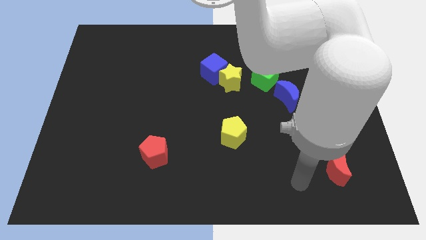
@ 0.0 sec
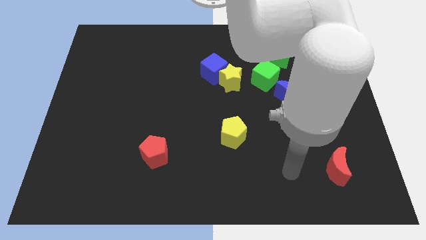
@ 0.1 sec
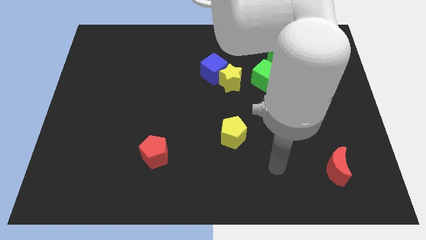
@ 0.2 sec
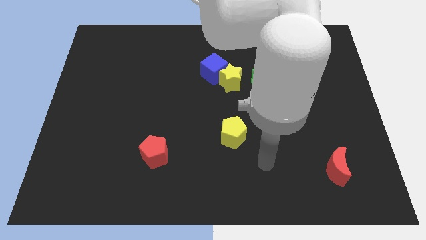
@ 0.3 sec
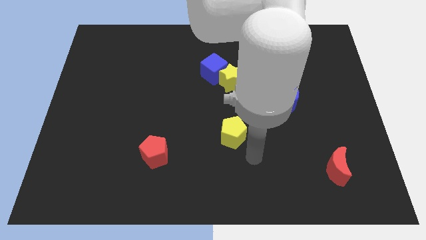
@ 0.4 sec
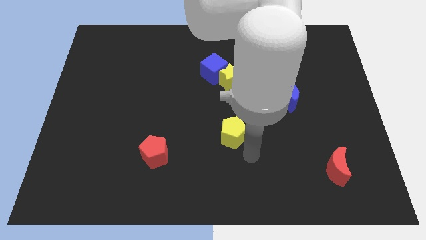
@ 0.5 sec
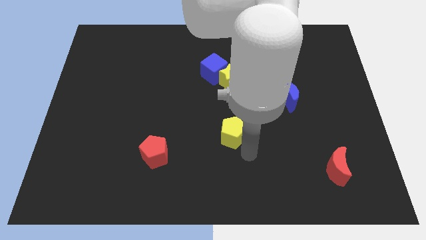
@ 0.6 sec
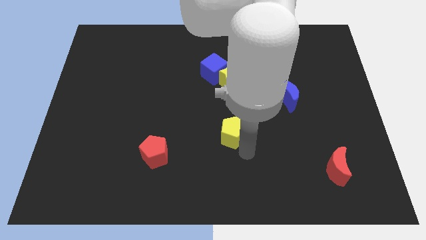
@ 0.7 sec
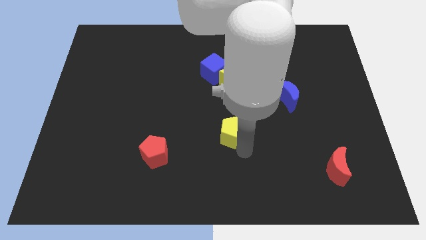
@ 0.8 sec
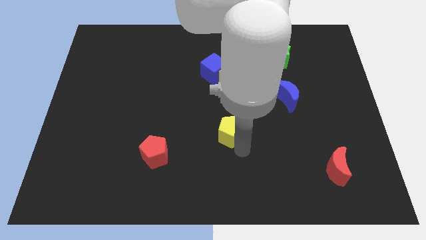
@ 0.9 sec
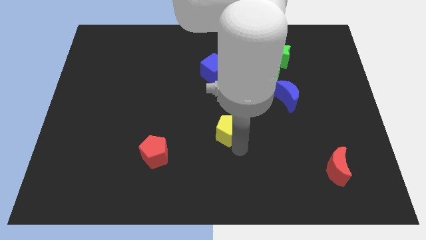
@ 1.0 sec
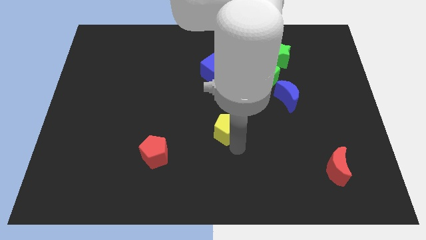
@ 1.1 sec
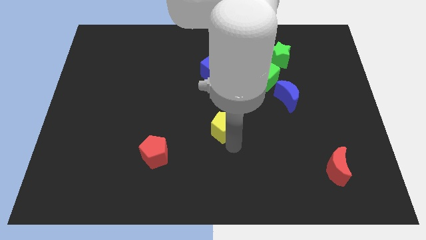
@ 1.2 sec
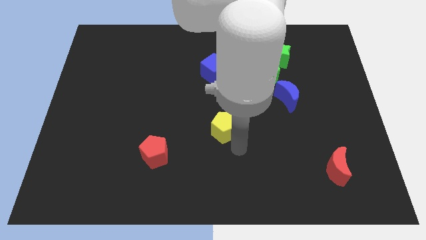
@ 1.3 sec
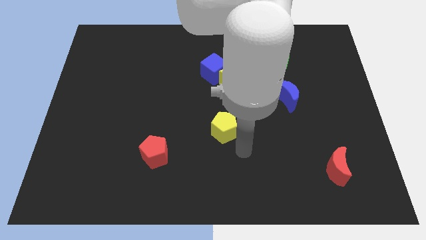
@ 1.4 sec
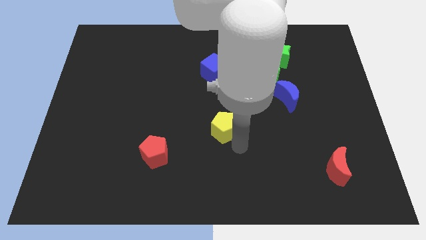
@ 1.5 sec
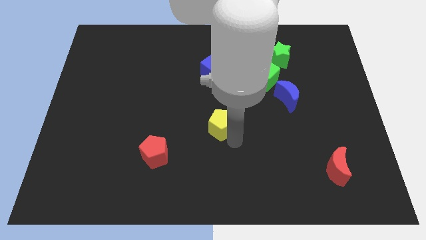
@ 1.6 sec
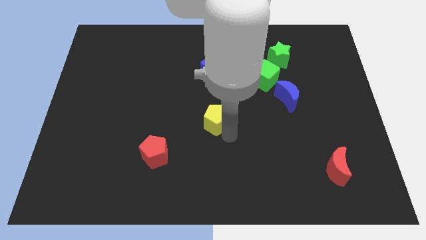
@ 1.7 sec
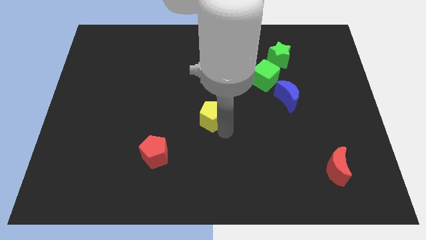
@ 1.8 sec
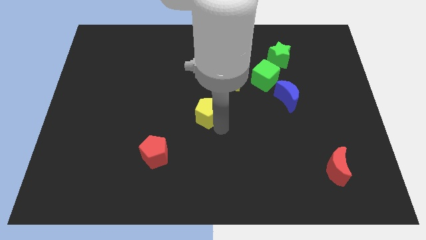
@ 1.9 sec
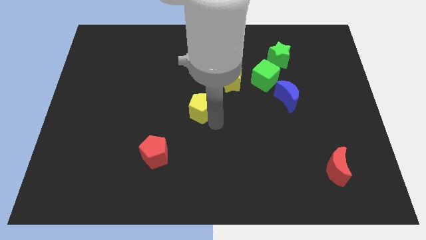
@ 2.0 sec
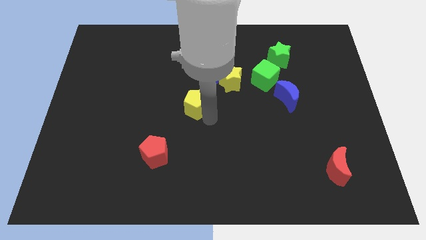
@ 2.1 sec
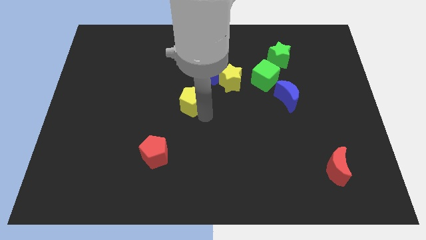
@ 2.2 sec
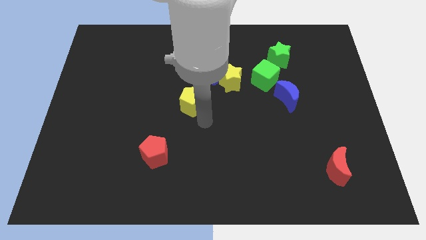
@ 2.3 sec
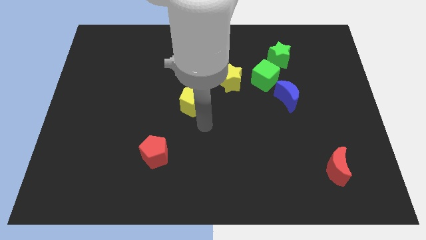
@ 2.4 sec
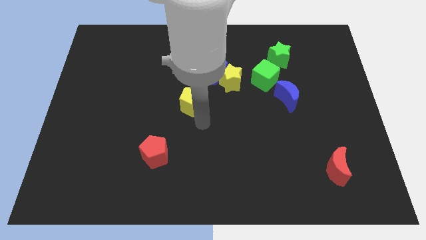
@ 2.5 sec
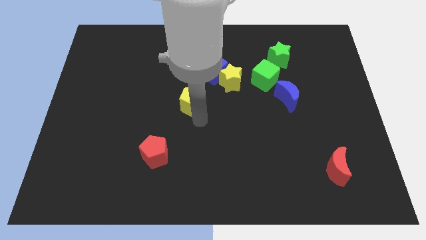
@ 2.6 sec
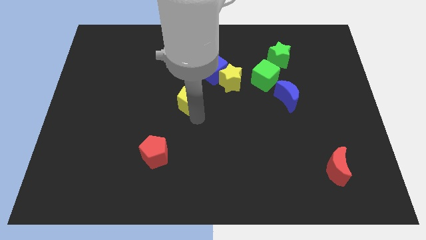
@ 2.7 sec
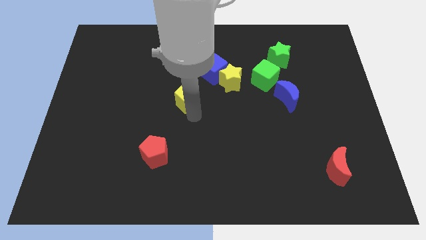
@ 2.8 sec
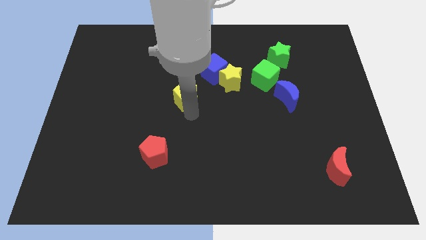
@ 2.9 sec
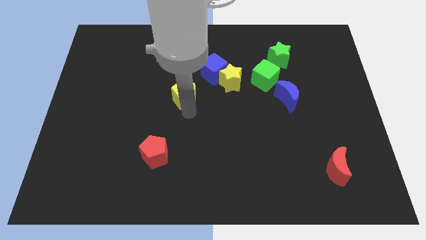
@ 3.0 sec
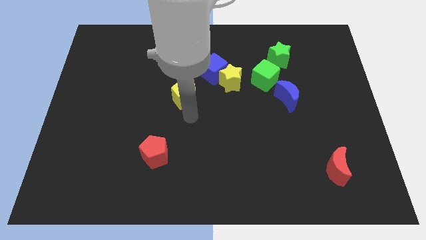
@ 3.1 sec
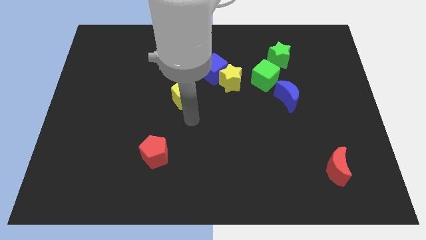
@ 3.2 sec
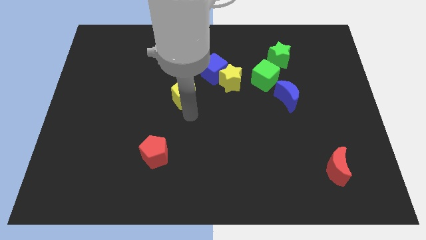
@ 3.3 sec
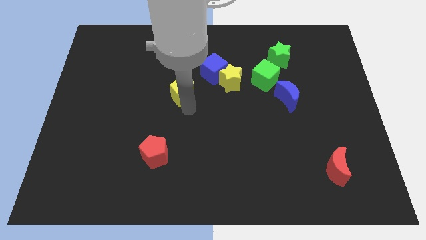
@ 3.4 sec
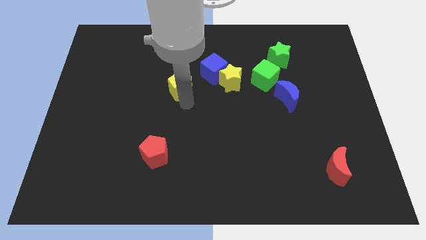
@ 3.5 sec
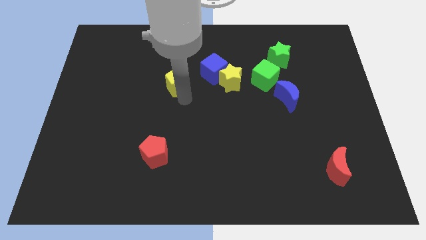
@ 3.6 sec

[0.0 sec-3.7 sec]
push the yellow pentagon diagonally up and left

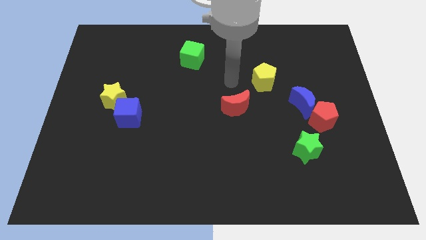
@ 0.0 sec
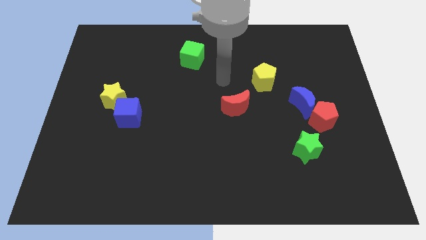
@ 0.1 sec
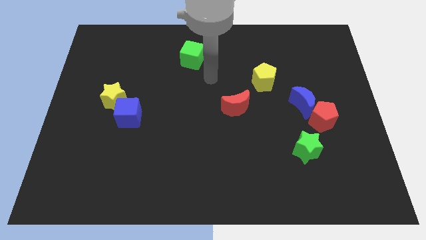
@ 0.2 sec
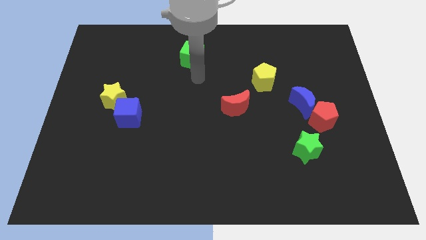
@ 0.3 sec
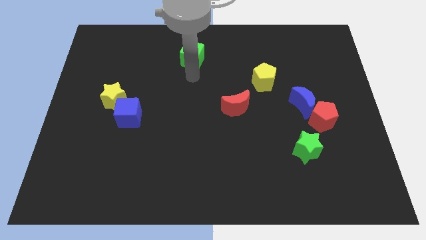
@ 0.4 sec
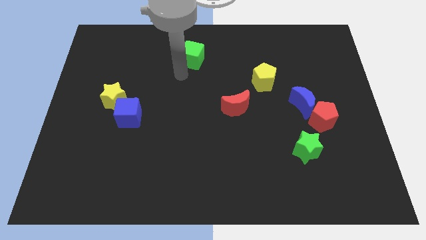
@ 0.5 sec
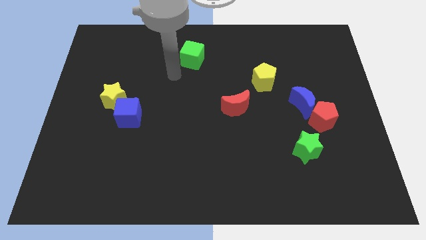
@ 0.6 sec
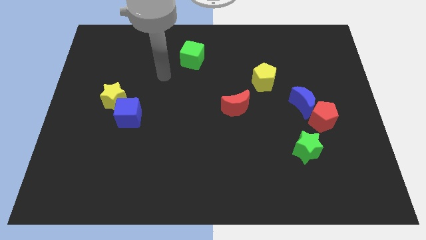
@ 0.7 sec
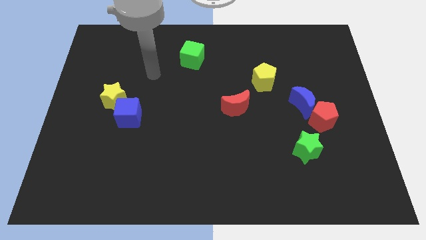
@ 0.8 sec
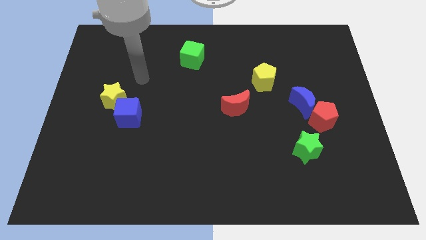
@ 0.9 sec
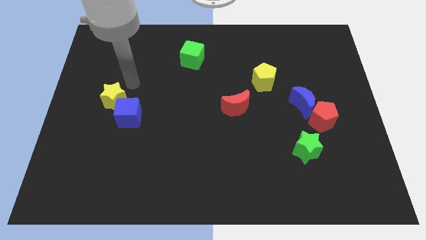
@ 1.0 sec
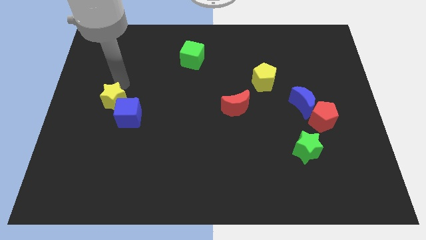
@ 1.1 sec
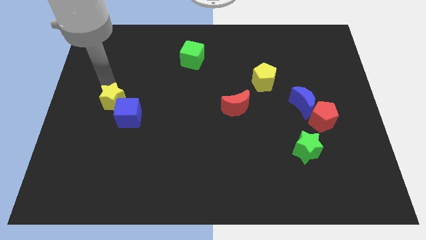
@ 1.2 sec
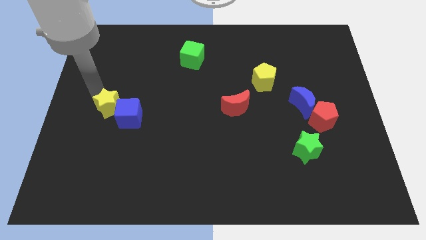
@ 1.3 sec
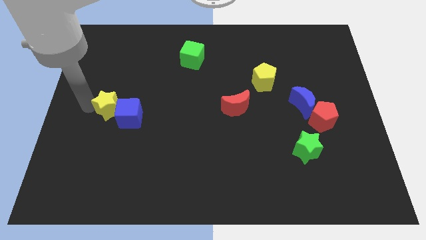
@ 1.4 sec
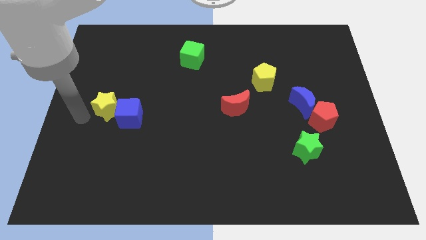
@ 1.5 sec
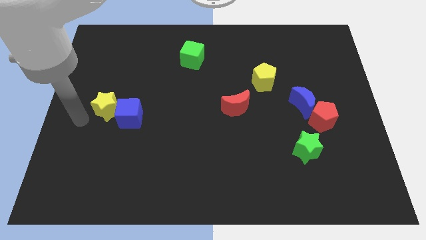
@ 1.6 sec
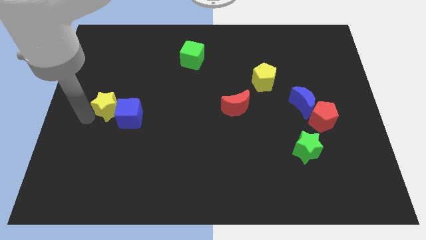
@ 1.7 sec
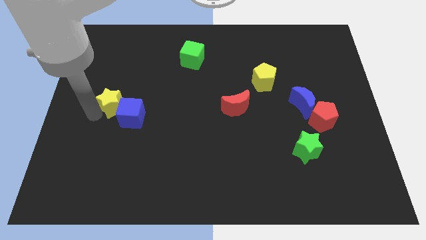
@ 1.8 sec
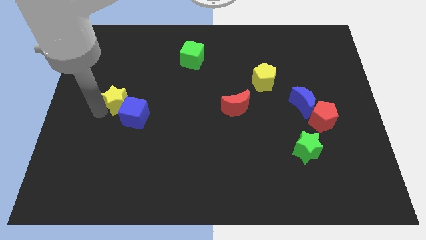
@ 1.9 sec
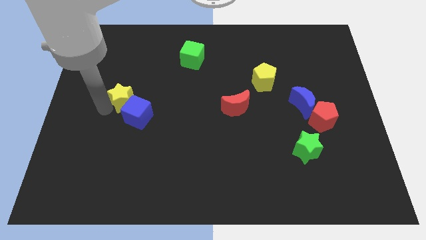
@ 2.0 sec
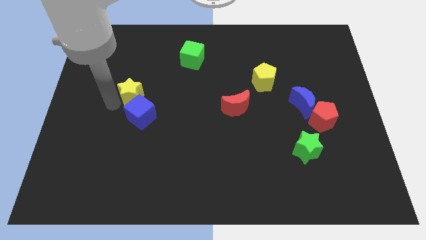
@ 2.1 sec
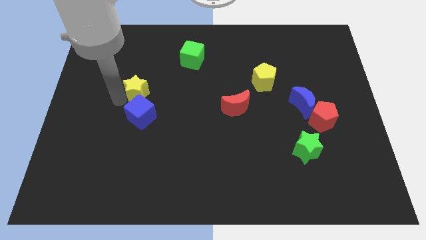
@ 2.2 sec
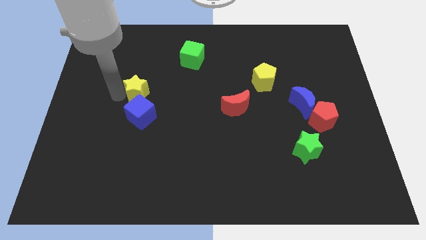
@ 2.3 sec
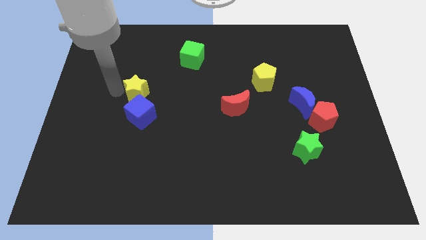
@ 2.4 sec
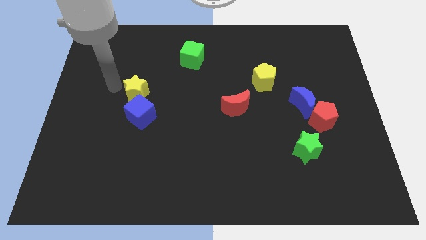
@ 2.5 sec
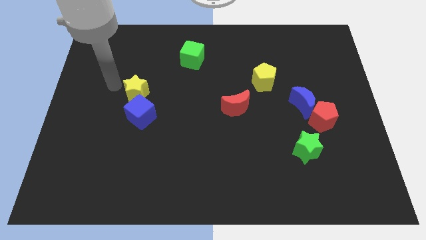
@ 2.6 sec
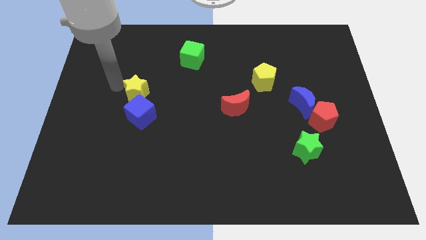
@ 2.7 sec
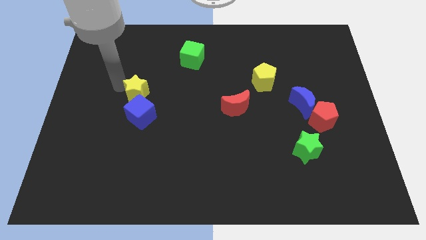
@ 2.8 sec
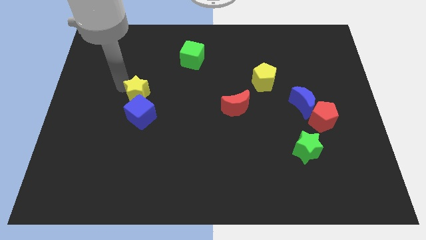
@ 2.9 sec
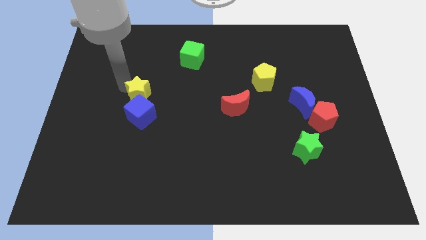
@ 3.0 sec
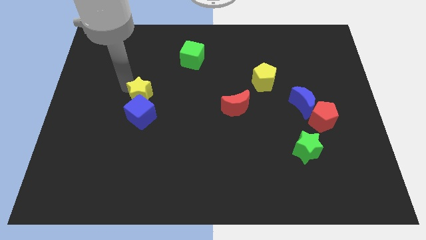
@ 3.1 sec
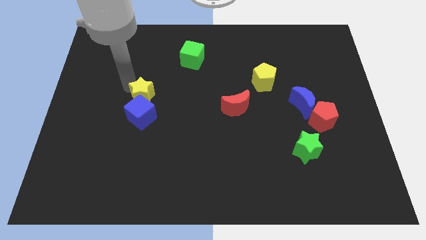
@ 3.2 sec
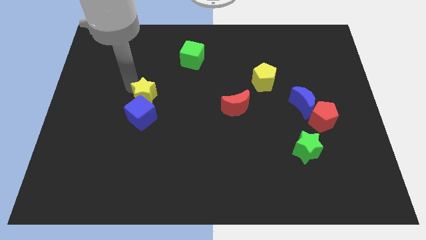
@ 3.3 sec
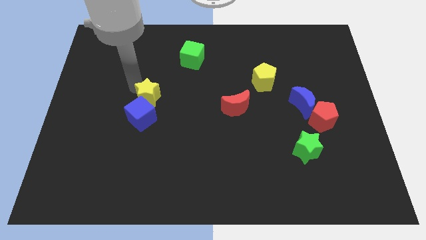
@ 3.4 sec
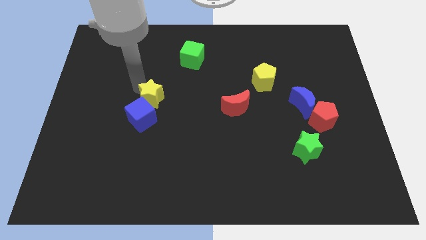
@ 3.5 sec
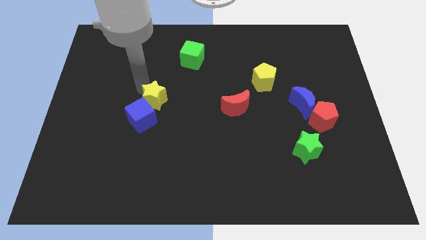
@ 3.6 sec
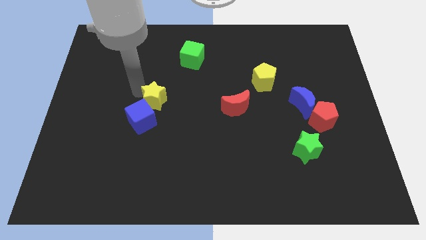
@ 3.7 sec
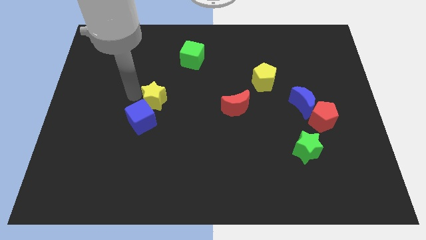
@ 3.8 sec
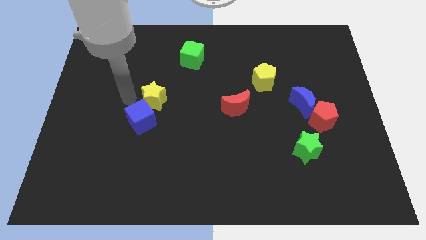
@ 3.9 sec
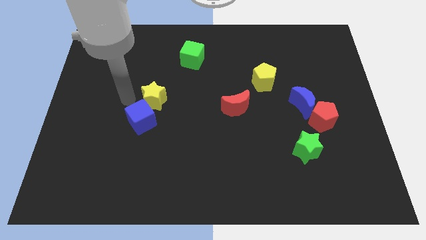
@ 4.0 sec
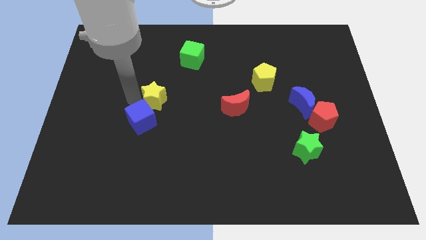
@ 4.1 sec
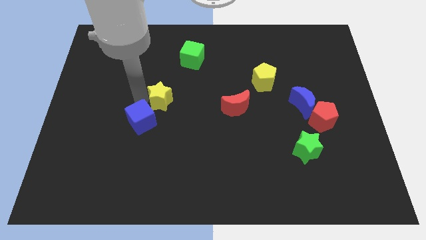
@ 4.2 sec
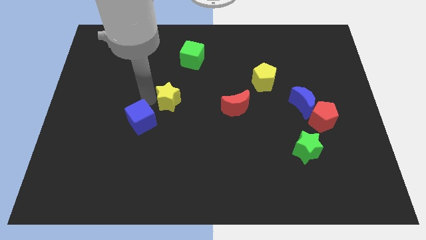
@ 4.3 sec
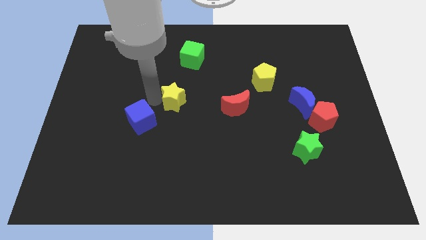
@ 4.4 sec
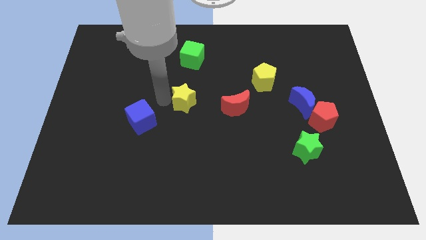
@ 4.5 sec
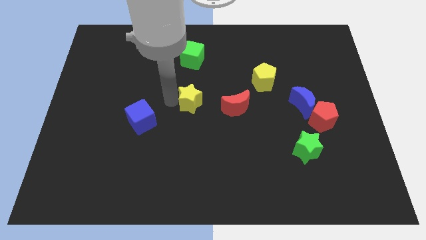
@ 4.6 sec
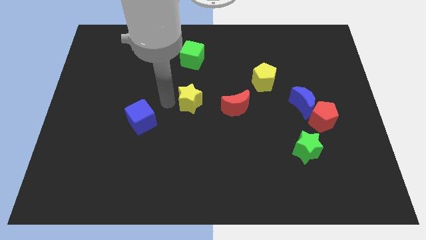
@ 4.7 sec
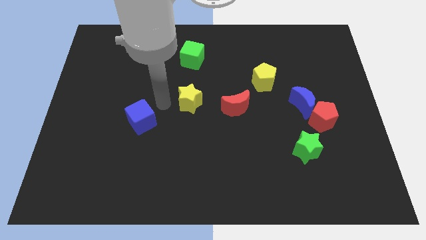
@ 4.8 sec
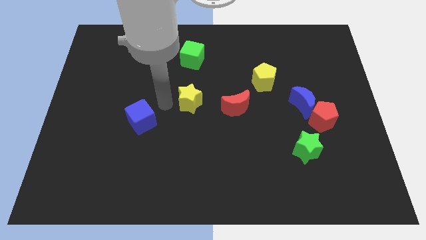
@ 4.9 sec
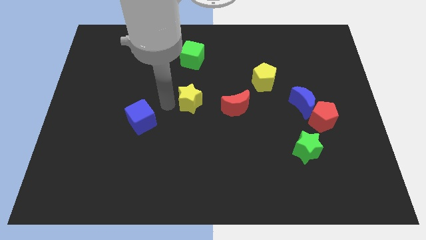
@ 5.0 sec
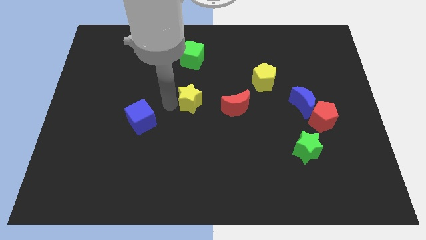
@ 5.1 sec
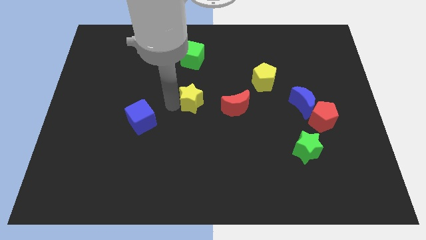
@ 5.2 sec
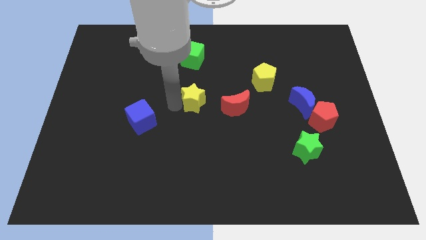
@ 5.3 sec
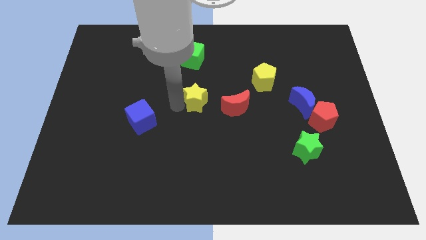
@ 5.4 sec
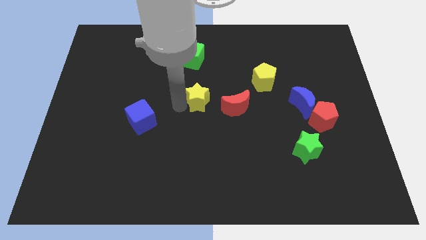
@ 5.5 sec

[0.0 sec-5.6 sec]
slide the yellow star to the right
